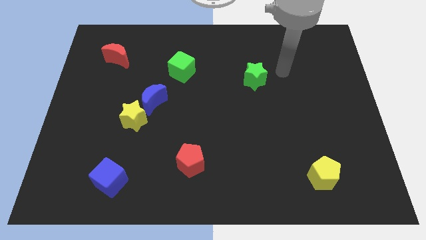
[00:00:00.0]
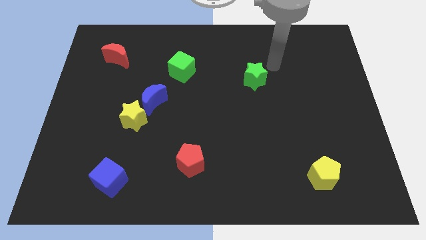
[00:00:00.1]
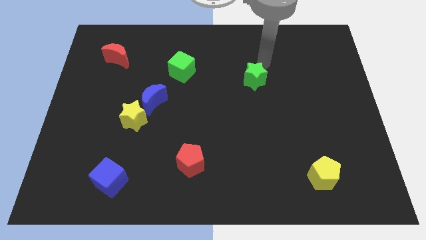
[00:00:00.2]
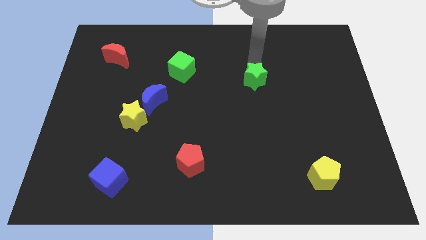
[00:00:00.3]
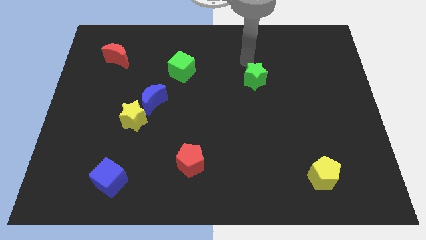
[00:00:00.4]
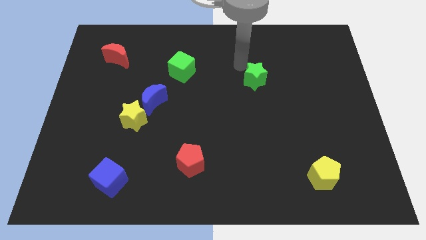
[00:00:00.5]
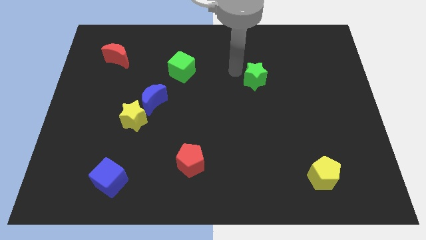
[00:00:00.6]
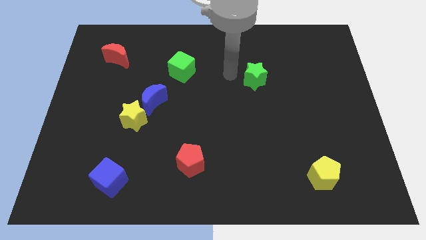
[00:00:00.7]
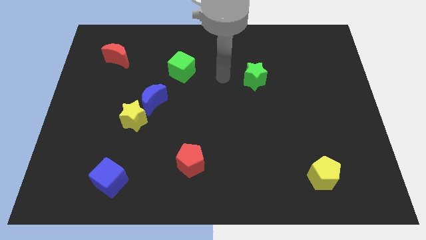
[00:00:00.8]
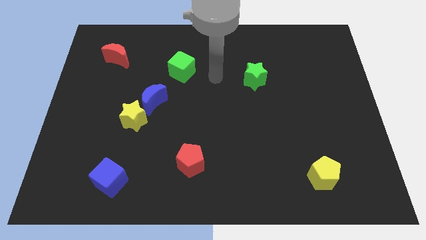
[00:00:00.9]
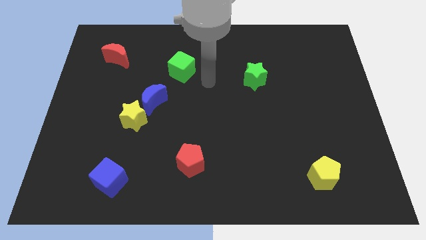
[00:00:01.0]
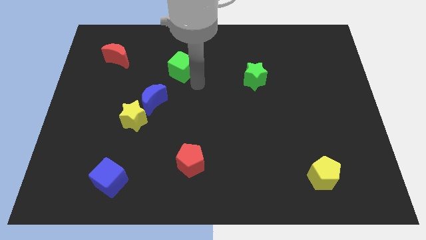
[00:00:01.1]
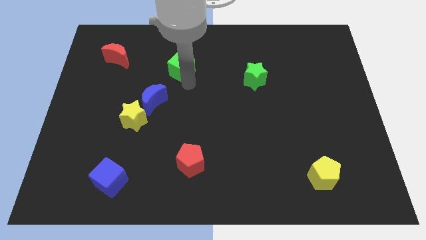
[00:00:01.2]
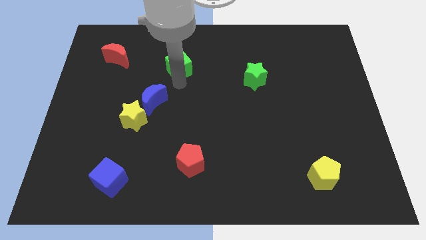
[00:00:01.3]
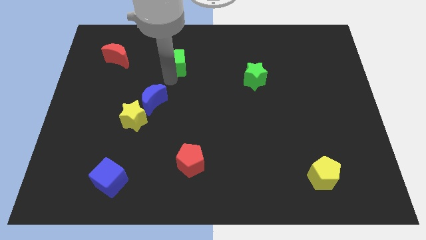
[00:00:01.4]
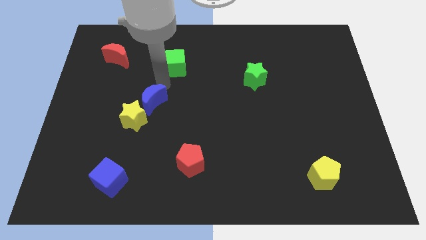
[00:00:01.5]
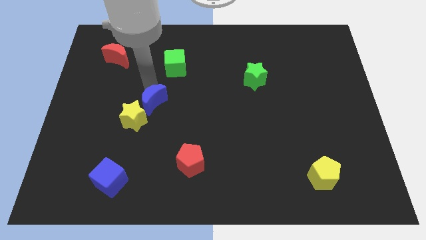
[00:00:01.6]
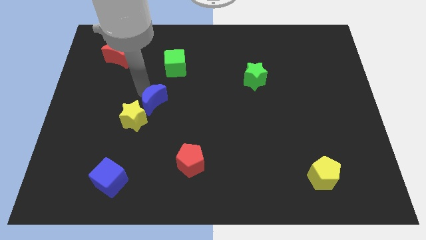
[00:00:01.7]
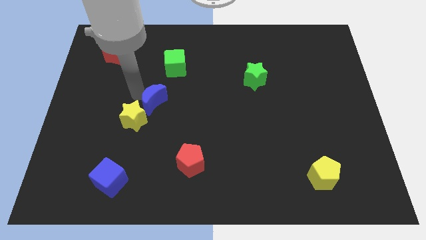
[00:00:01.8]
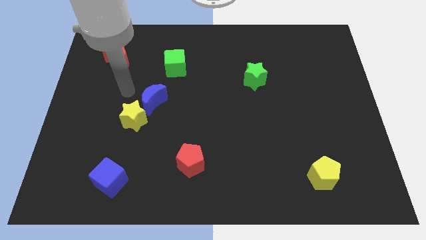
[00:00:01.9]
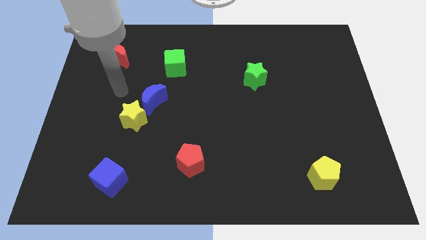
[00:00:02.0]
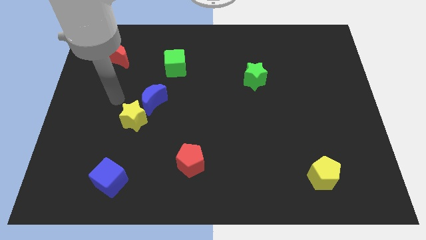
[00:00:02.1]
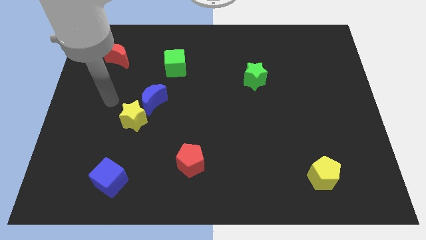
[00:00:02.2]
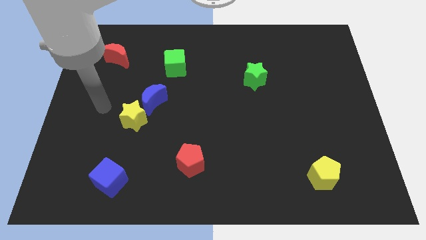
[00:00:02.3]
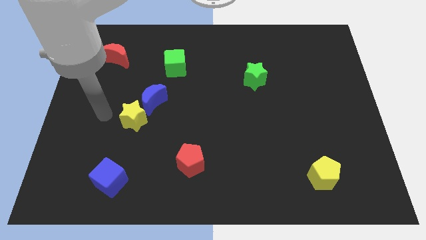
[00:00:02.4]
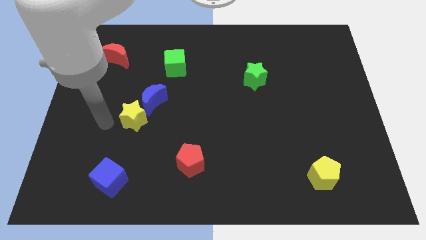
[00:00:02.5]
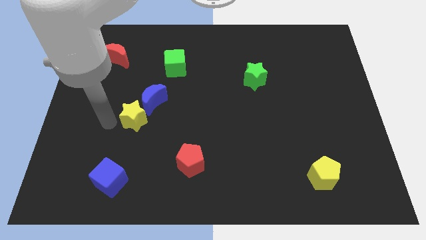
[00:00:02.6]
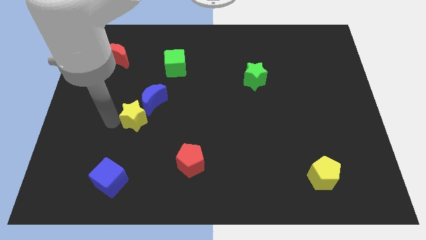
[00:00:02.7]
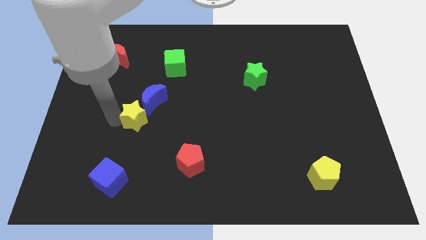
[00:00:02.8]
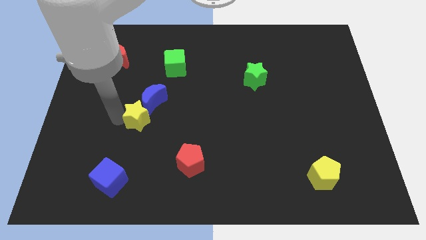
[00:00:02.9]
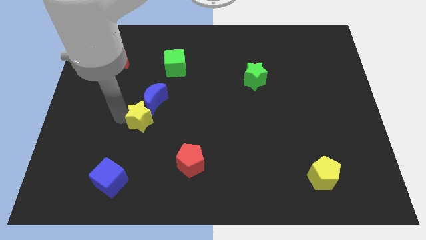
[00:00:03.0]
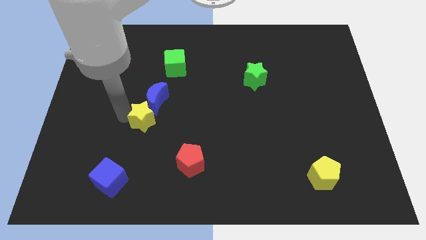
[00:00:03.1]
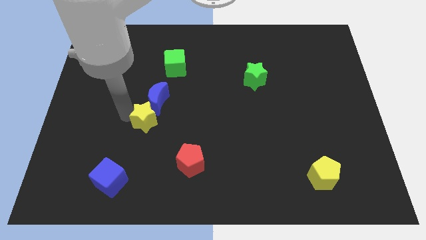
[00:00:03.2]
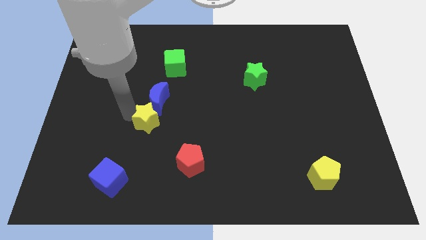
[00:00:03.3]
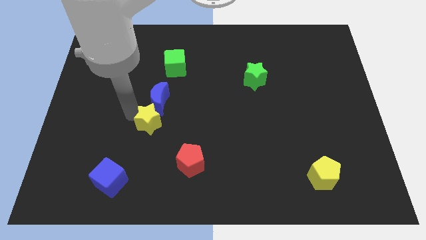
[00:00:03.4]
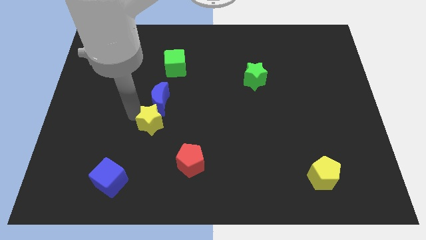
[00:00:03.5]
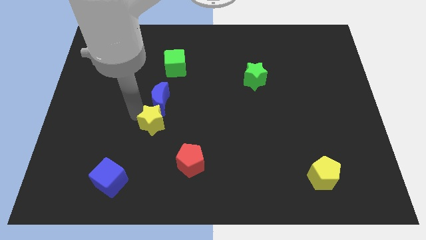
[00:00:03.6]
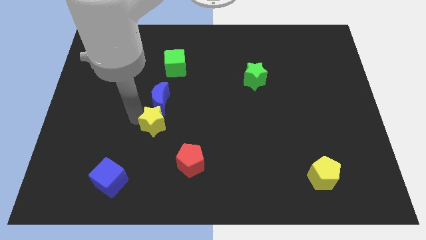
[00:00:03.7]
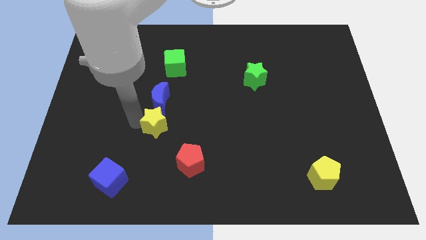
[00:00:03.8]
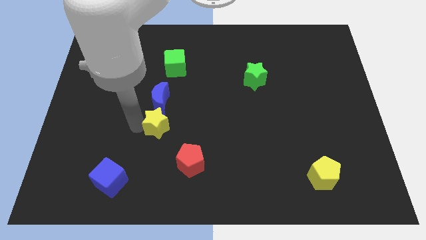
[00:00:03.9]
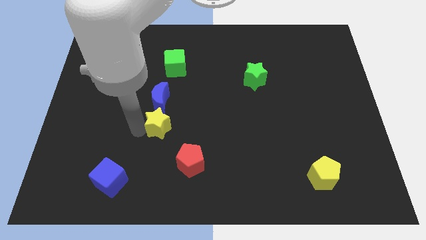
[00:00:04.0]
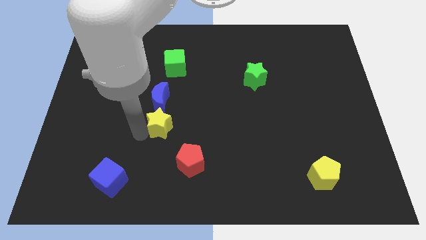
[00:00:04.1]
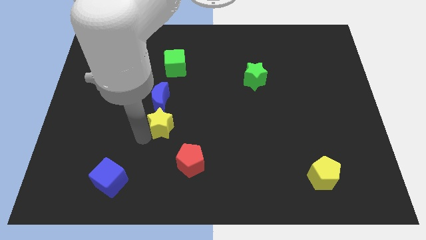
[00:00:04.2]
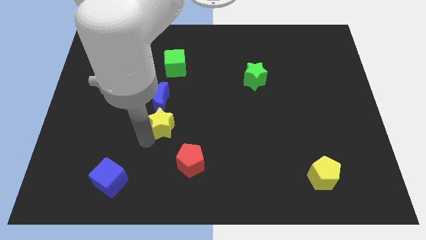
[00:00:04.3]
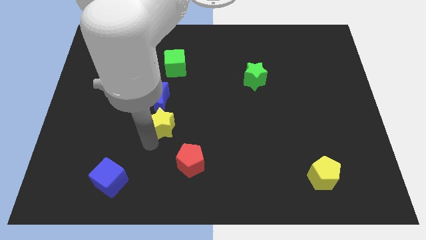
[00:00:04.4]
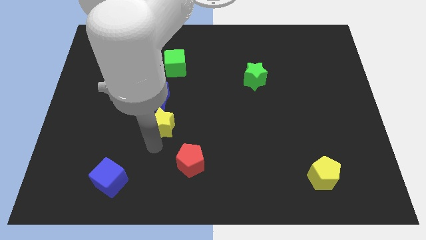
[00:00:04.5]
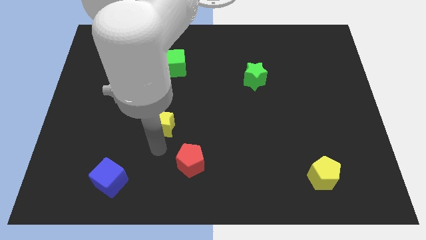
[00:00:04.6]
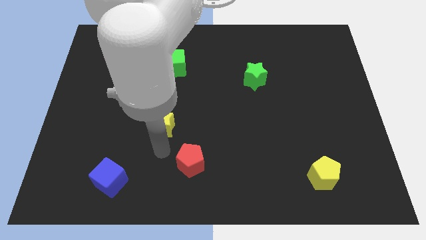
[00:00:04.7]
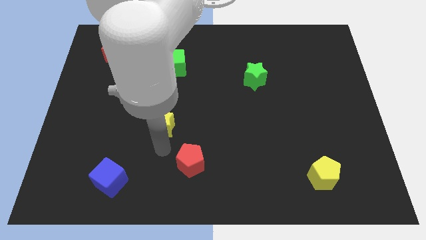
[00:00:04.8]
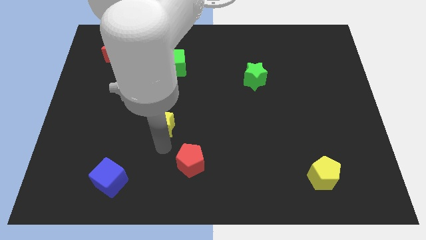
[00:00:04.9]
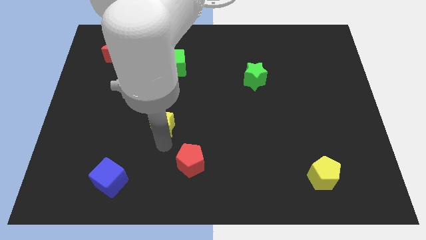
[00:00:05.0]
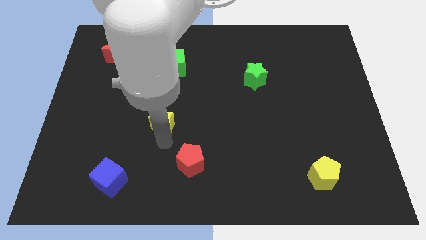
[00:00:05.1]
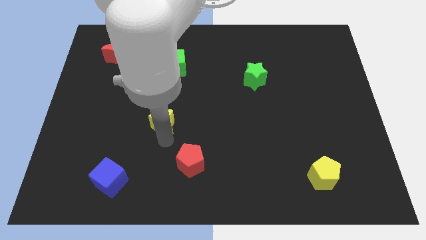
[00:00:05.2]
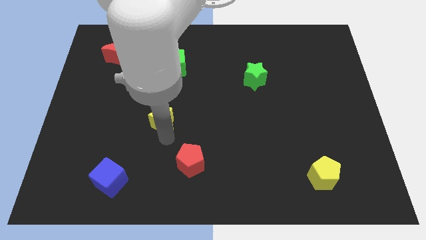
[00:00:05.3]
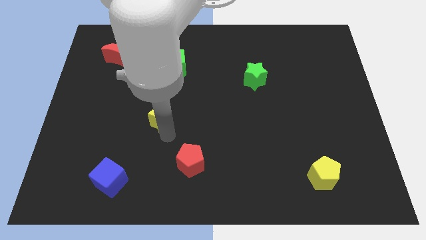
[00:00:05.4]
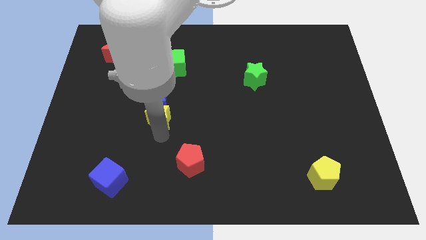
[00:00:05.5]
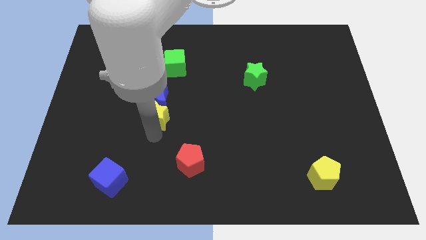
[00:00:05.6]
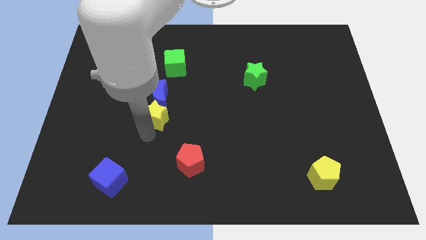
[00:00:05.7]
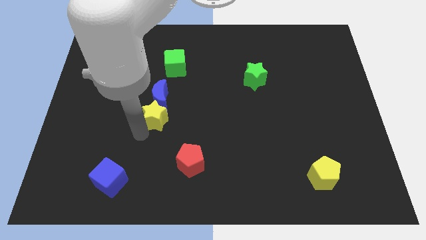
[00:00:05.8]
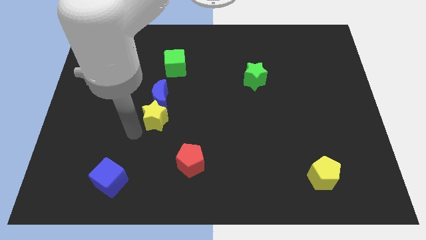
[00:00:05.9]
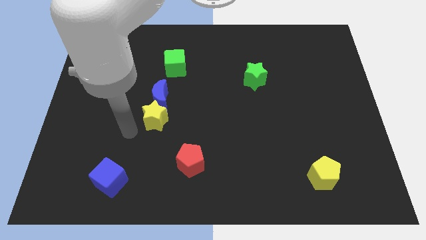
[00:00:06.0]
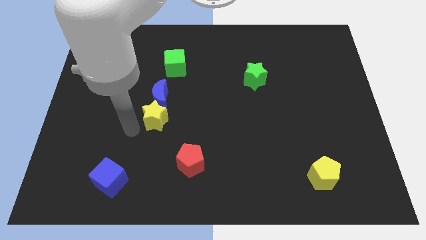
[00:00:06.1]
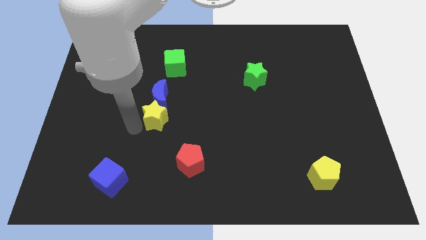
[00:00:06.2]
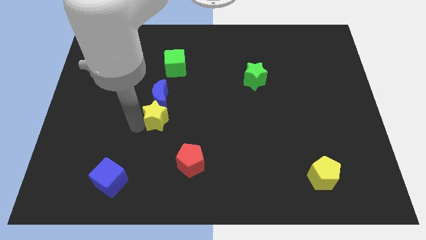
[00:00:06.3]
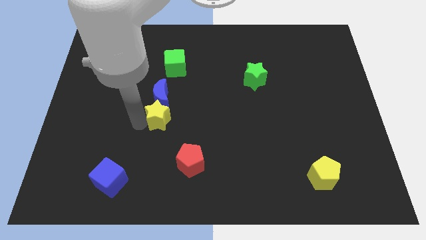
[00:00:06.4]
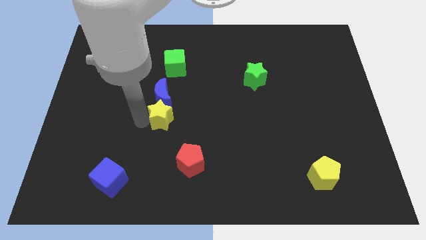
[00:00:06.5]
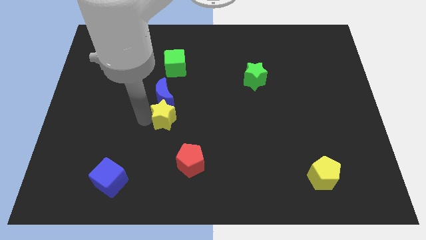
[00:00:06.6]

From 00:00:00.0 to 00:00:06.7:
put the yellow star to the center of the board

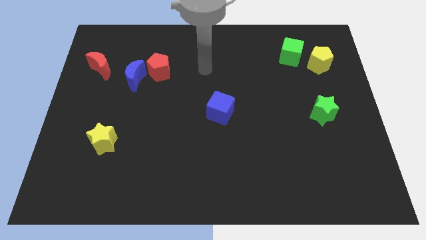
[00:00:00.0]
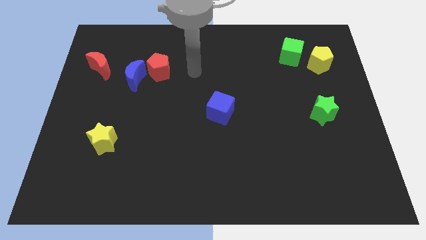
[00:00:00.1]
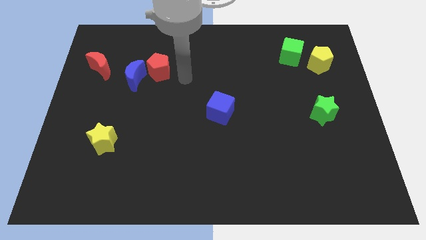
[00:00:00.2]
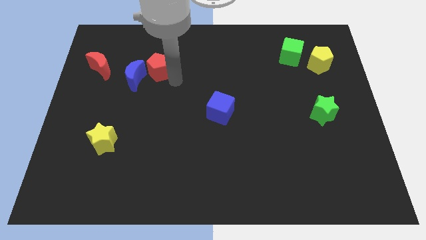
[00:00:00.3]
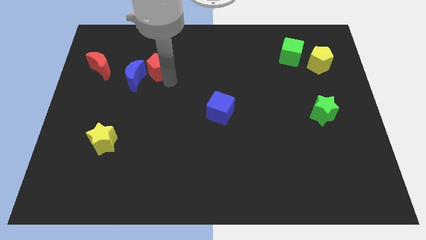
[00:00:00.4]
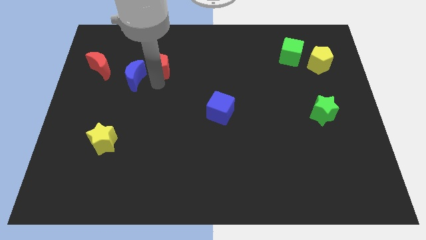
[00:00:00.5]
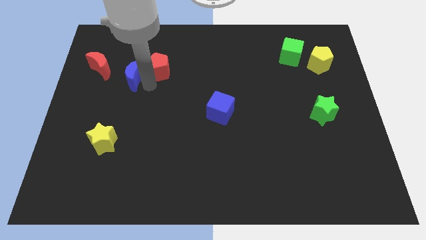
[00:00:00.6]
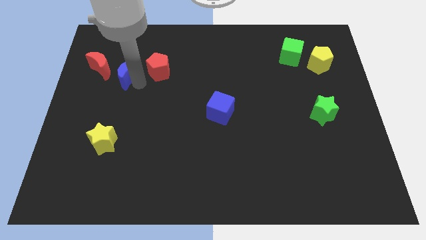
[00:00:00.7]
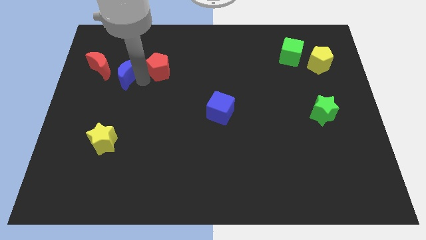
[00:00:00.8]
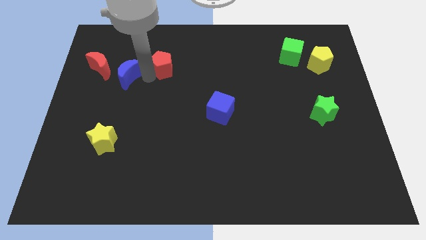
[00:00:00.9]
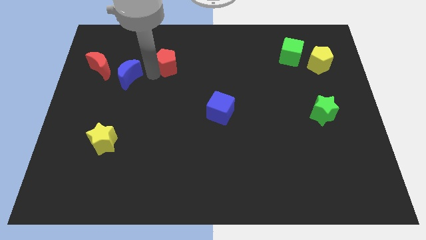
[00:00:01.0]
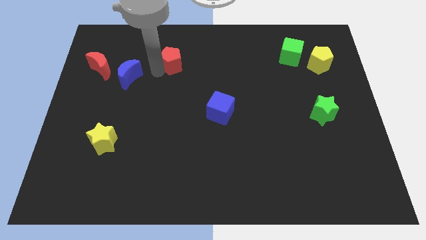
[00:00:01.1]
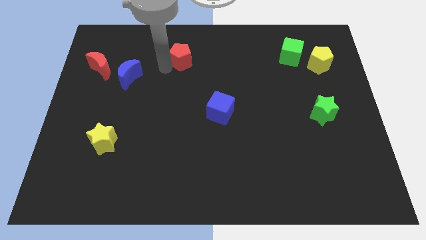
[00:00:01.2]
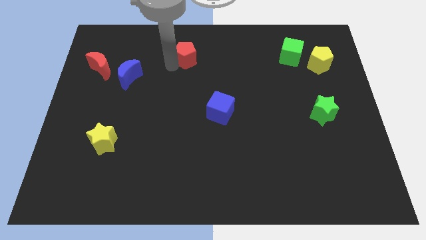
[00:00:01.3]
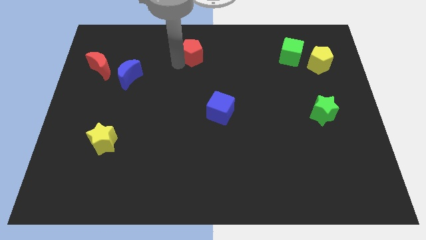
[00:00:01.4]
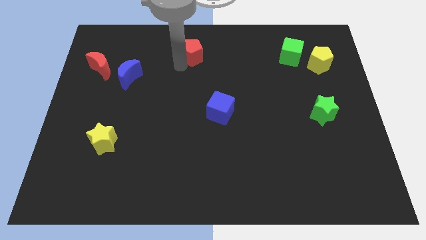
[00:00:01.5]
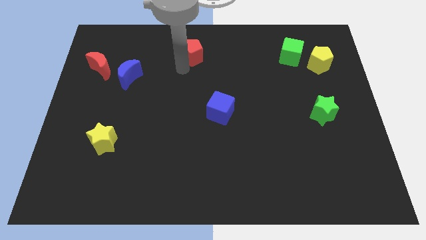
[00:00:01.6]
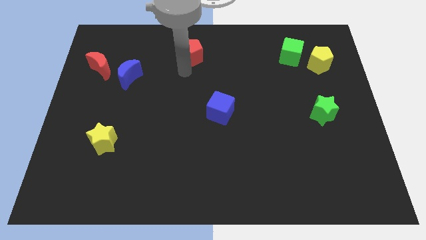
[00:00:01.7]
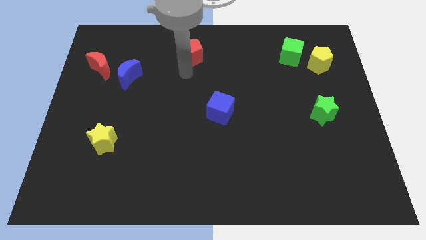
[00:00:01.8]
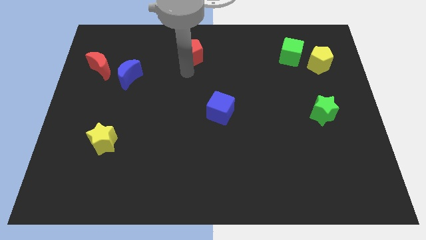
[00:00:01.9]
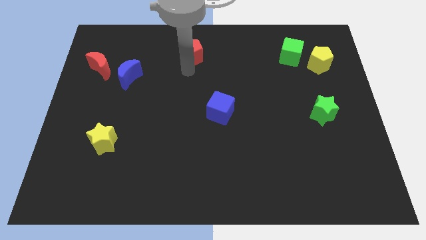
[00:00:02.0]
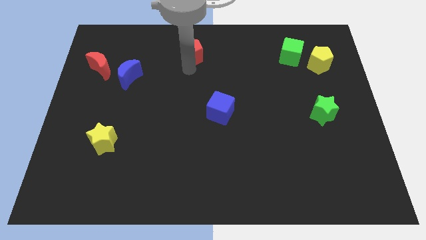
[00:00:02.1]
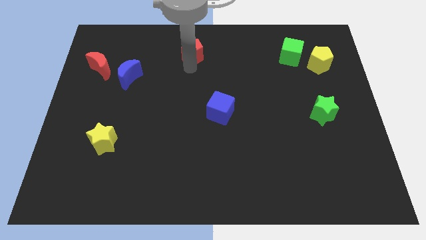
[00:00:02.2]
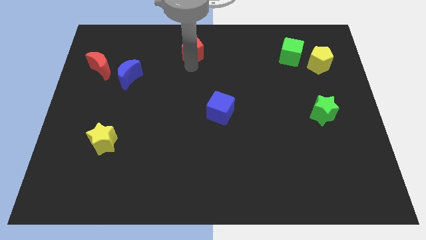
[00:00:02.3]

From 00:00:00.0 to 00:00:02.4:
put the red pentagon to the towards your base
